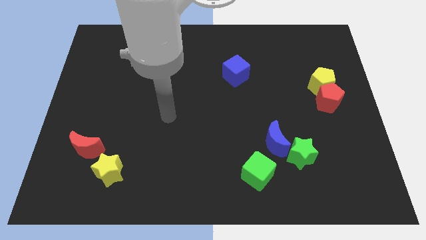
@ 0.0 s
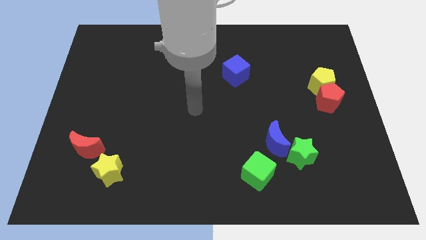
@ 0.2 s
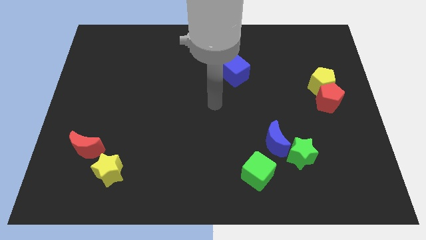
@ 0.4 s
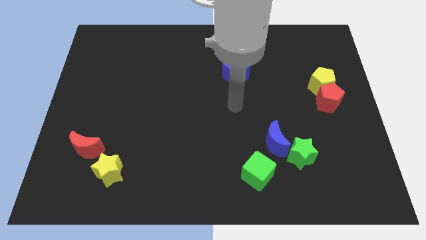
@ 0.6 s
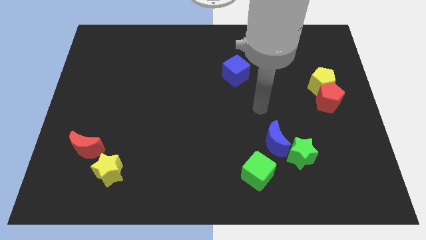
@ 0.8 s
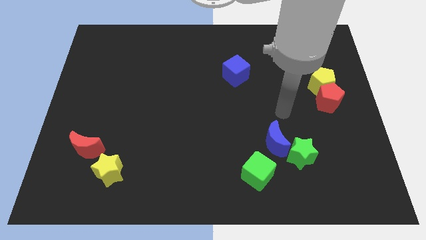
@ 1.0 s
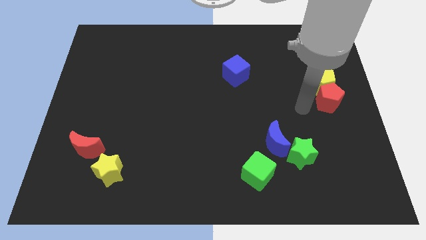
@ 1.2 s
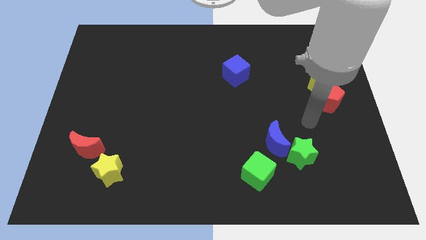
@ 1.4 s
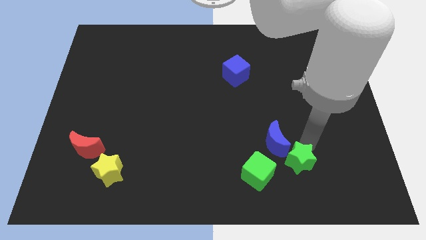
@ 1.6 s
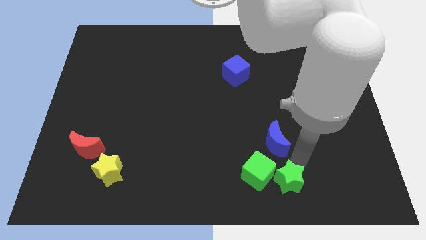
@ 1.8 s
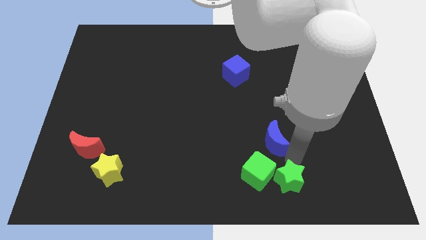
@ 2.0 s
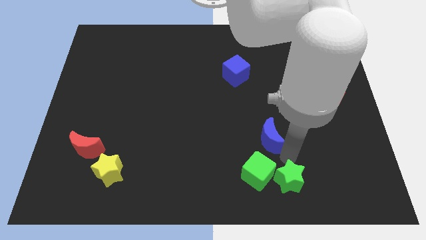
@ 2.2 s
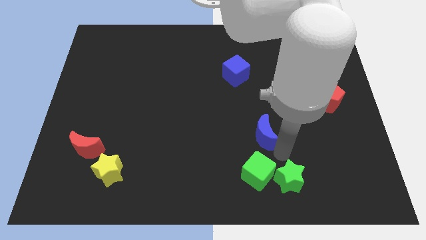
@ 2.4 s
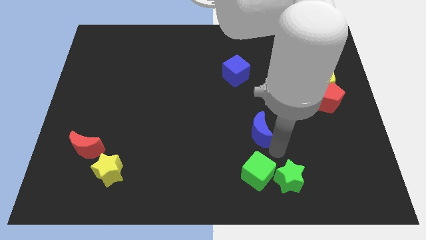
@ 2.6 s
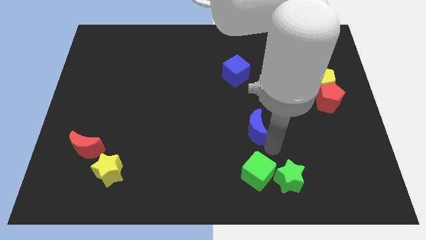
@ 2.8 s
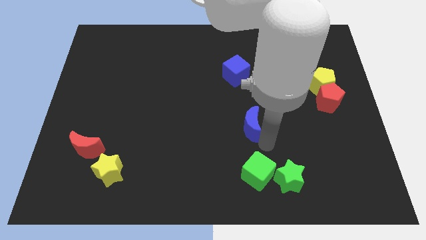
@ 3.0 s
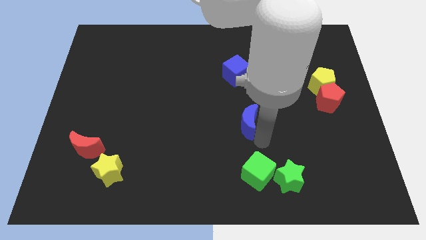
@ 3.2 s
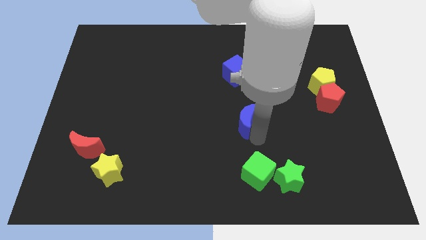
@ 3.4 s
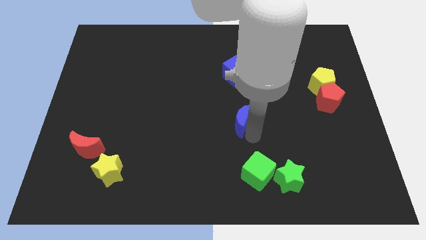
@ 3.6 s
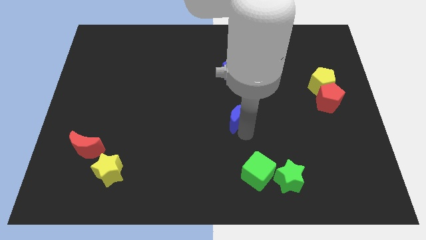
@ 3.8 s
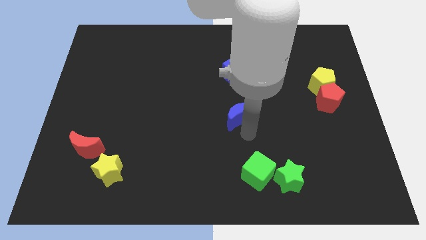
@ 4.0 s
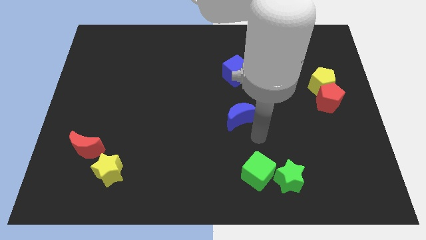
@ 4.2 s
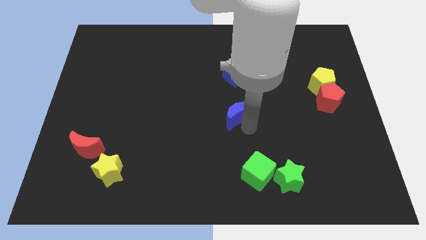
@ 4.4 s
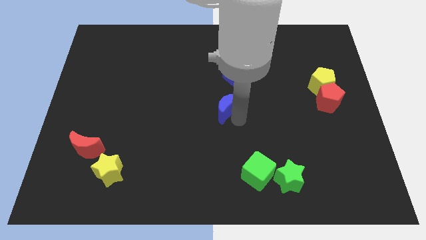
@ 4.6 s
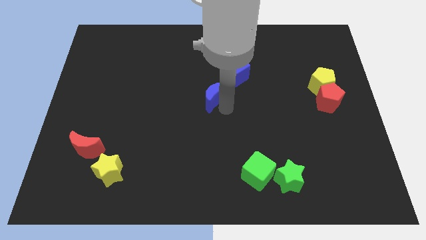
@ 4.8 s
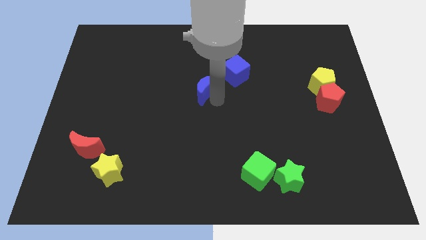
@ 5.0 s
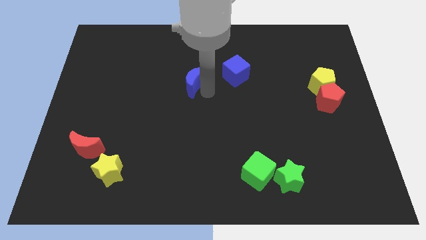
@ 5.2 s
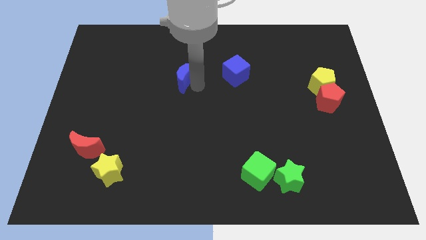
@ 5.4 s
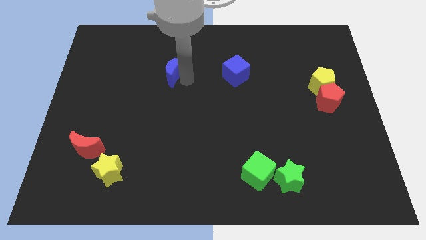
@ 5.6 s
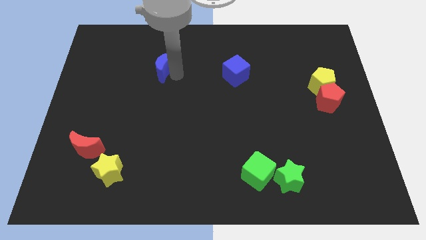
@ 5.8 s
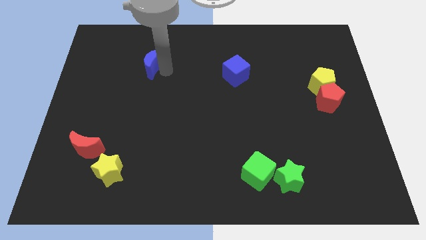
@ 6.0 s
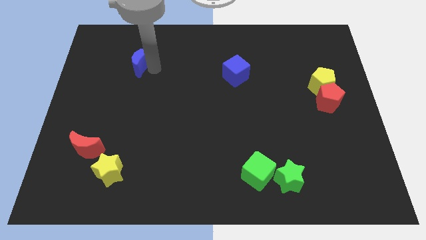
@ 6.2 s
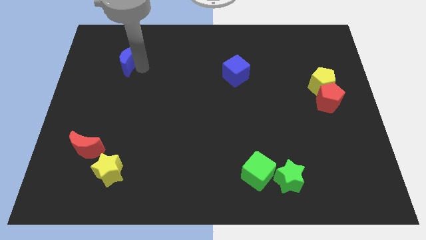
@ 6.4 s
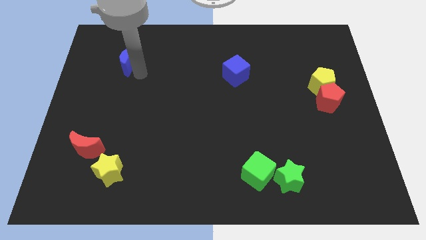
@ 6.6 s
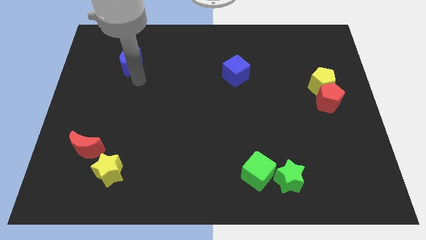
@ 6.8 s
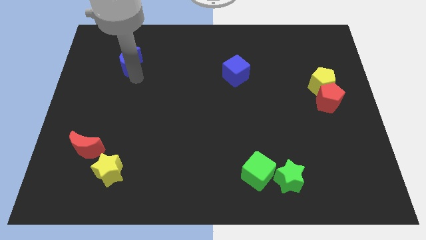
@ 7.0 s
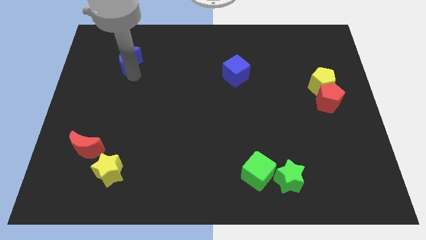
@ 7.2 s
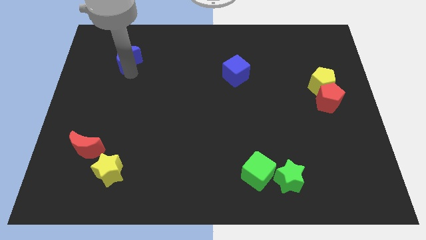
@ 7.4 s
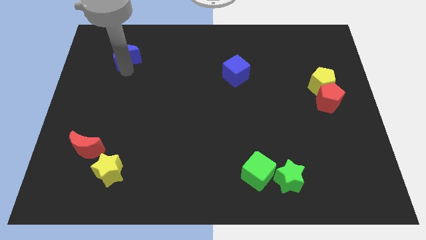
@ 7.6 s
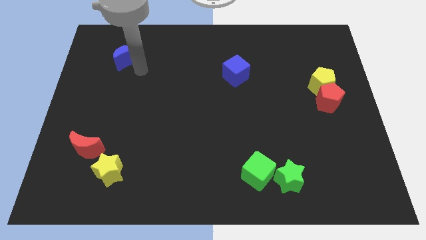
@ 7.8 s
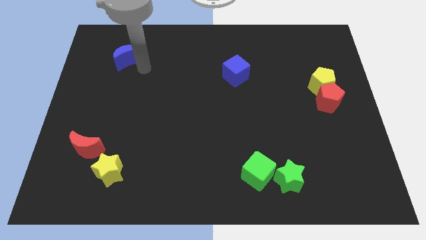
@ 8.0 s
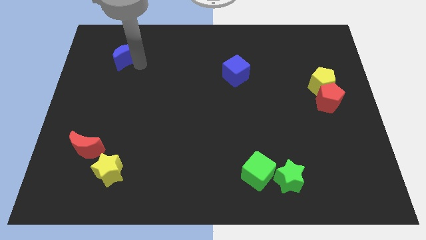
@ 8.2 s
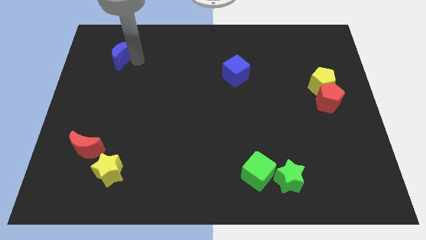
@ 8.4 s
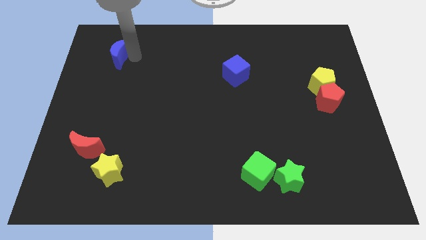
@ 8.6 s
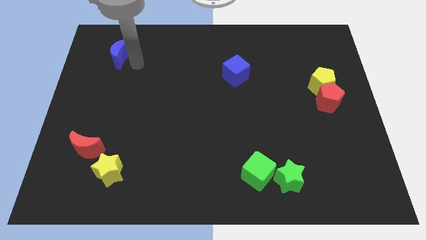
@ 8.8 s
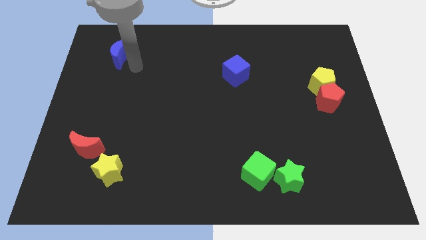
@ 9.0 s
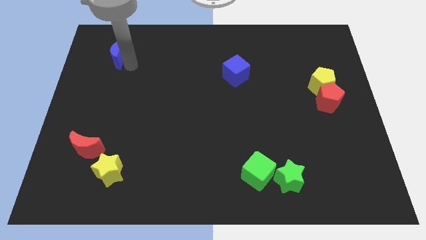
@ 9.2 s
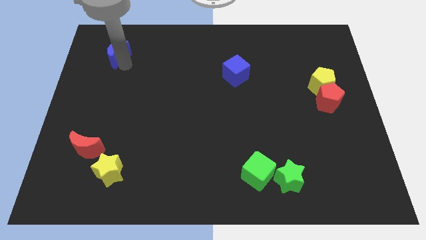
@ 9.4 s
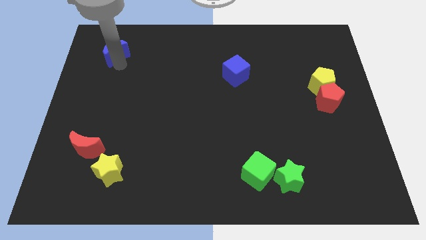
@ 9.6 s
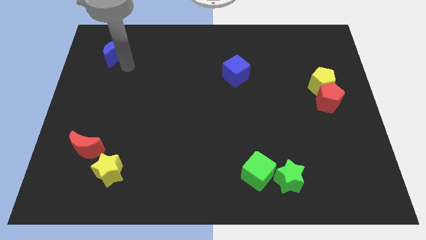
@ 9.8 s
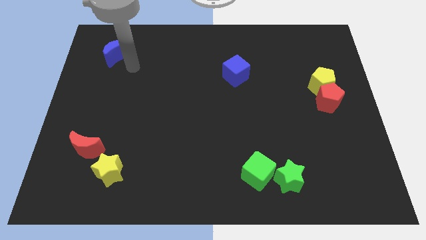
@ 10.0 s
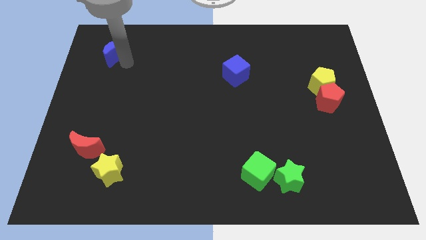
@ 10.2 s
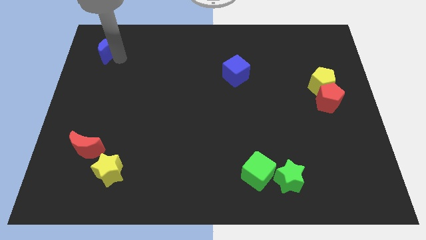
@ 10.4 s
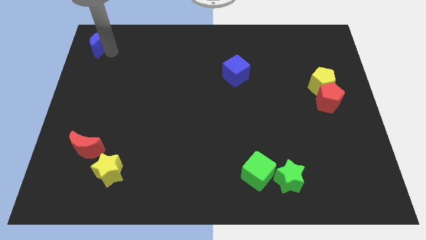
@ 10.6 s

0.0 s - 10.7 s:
move the blue moon to the top left

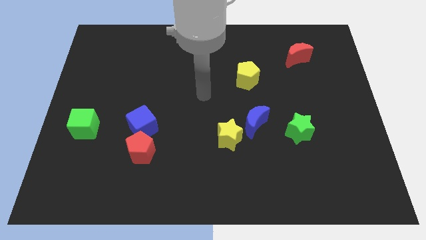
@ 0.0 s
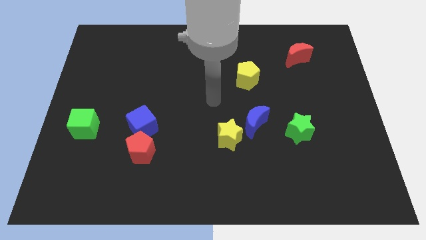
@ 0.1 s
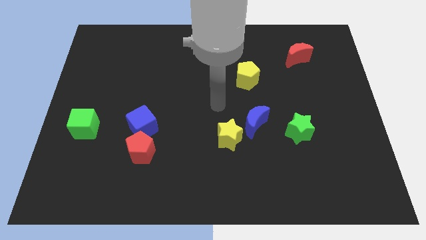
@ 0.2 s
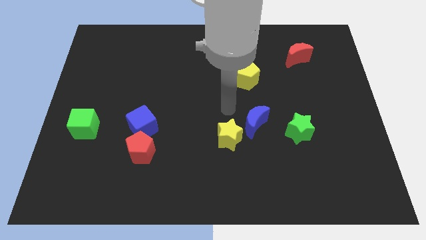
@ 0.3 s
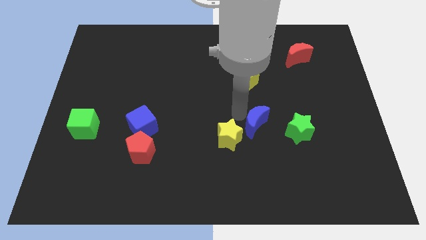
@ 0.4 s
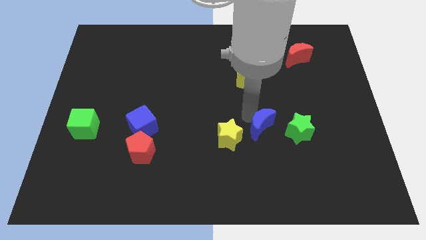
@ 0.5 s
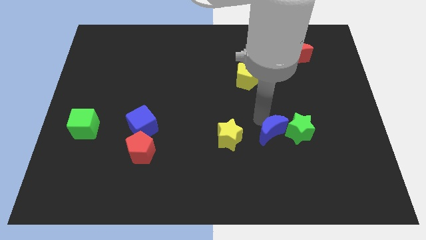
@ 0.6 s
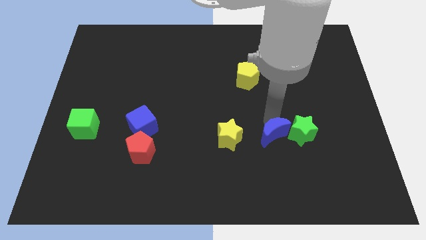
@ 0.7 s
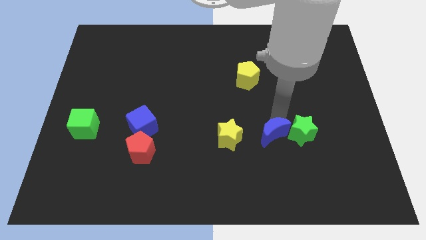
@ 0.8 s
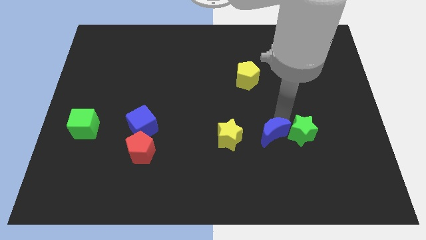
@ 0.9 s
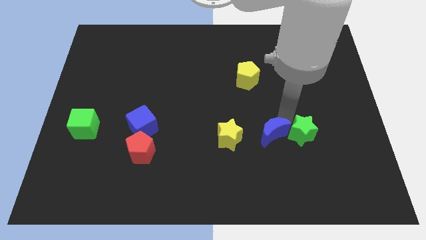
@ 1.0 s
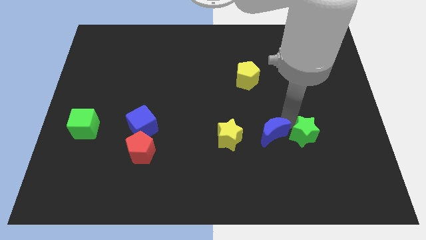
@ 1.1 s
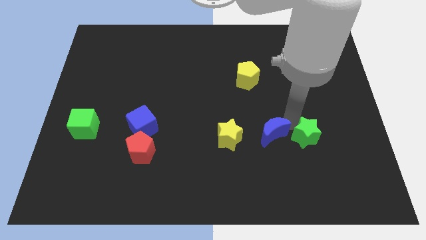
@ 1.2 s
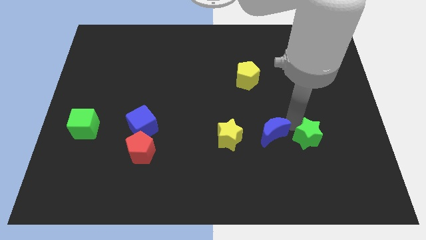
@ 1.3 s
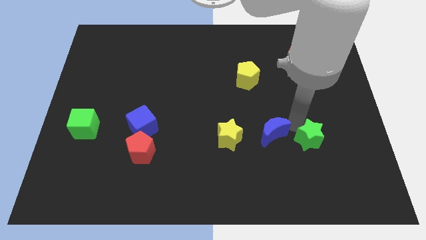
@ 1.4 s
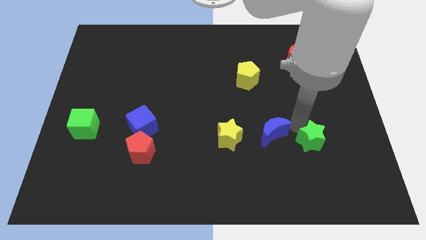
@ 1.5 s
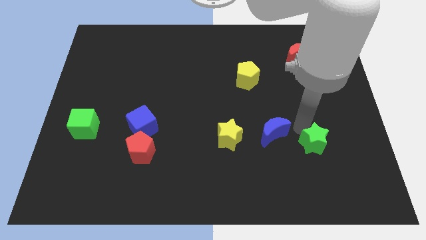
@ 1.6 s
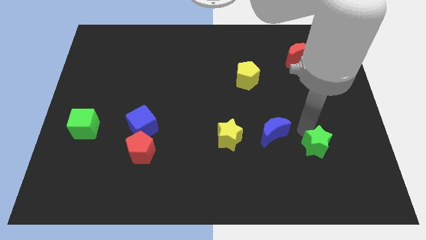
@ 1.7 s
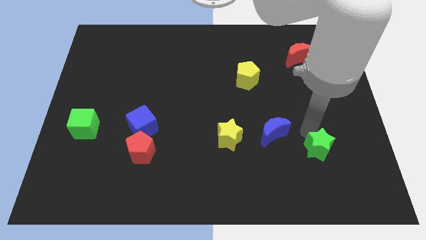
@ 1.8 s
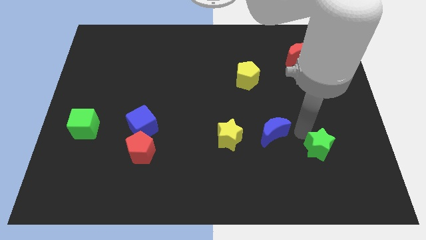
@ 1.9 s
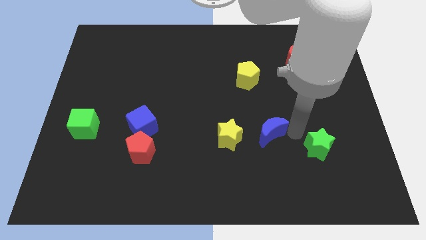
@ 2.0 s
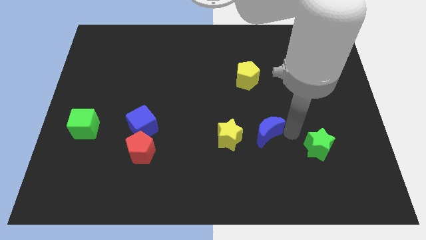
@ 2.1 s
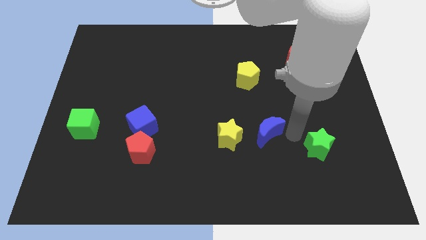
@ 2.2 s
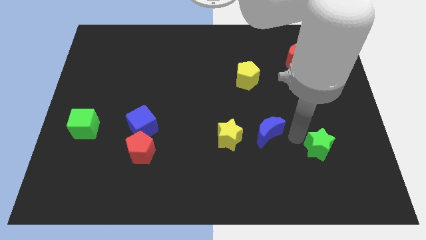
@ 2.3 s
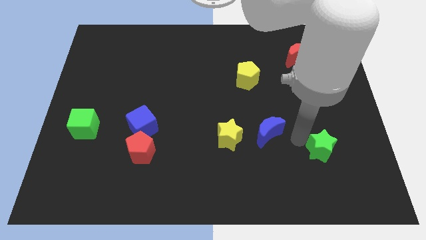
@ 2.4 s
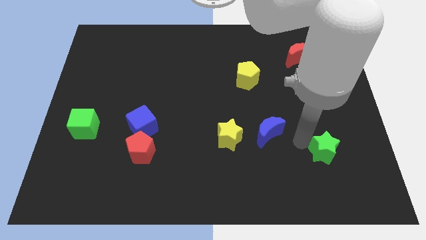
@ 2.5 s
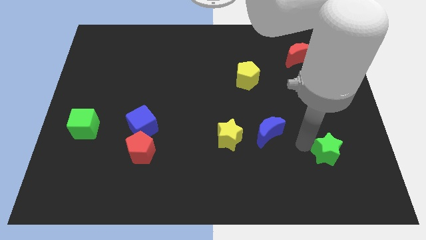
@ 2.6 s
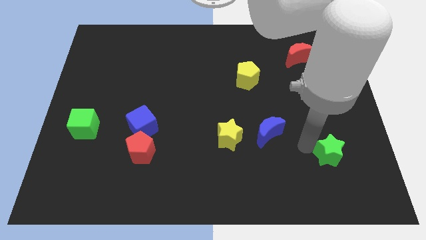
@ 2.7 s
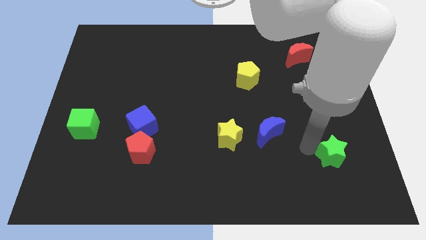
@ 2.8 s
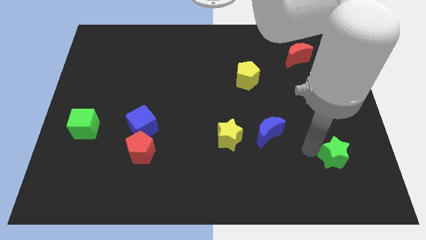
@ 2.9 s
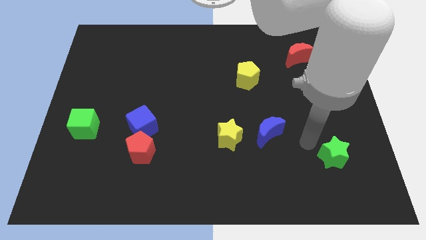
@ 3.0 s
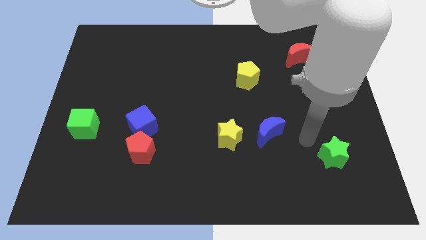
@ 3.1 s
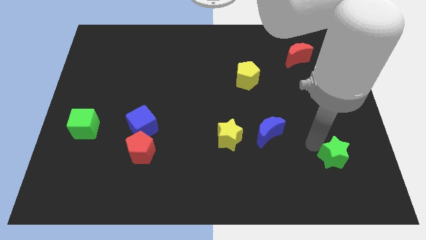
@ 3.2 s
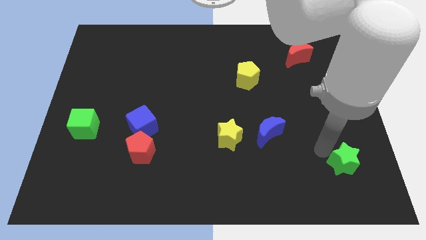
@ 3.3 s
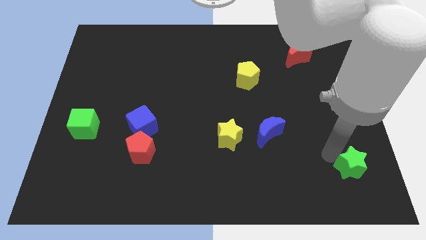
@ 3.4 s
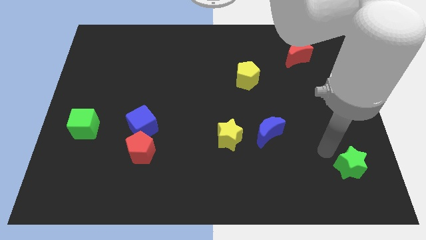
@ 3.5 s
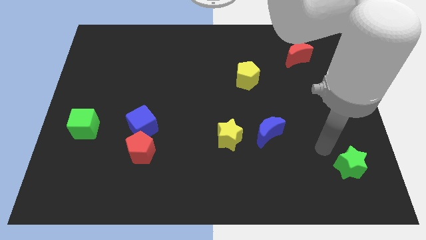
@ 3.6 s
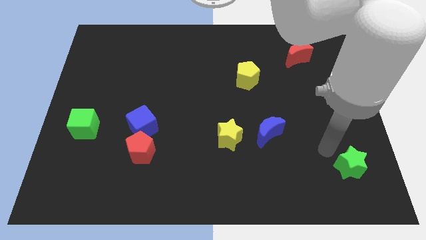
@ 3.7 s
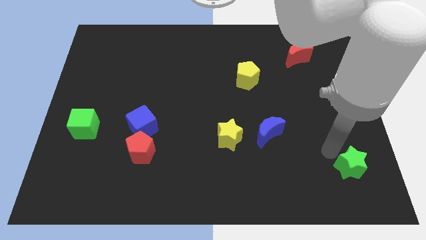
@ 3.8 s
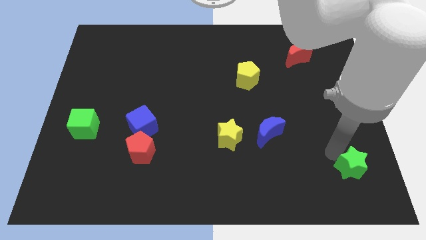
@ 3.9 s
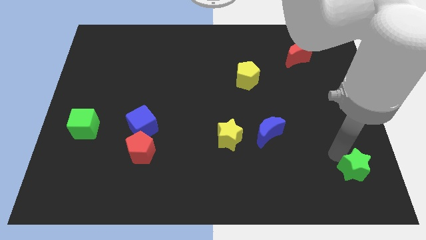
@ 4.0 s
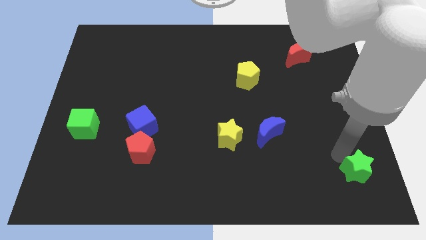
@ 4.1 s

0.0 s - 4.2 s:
move the green star to the lower right corner
